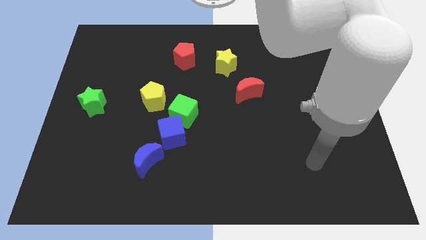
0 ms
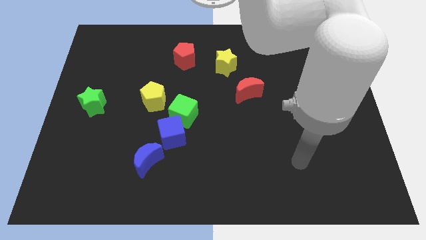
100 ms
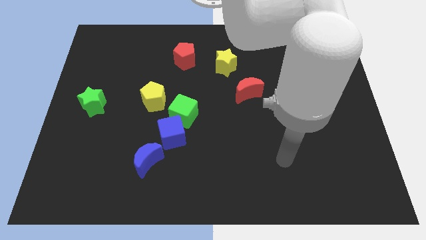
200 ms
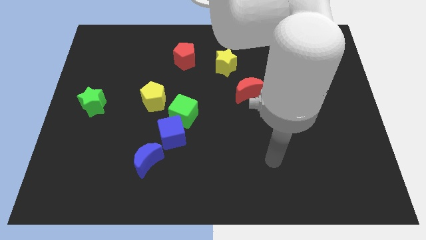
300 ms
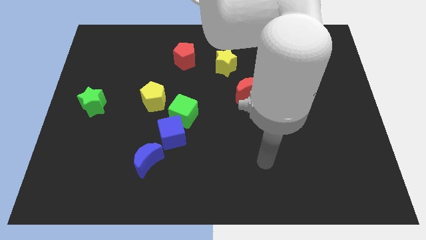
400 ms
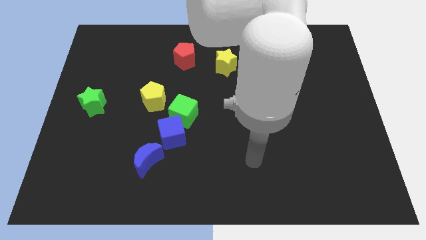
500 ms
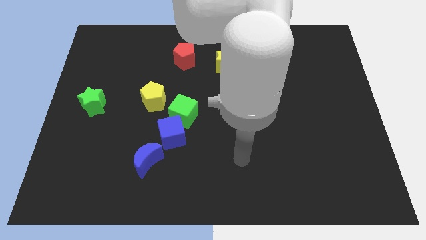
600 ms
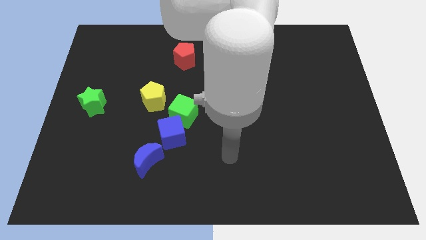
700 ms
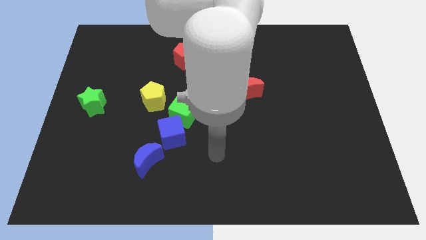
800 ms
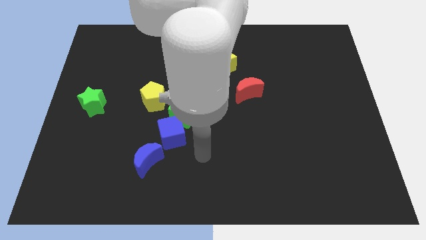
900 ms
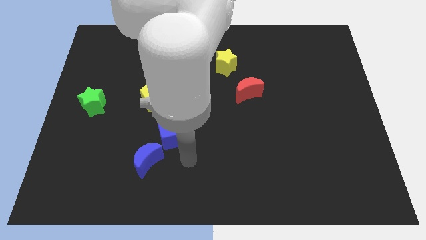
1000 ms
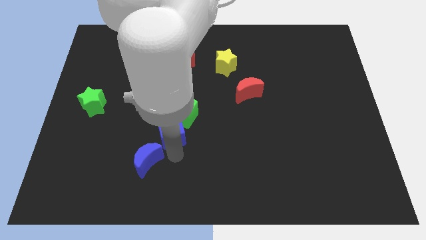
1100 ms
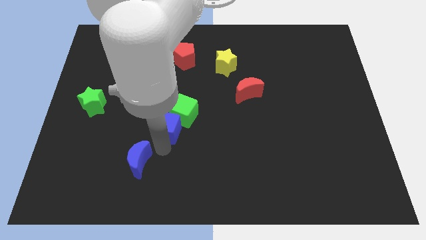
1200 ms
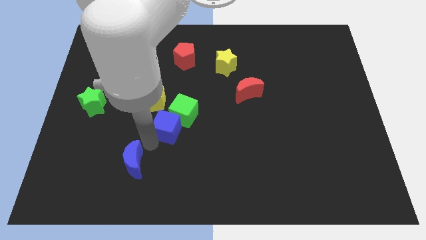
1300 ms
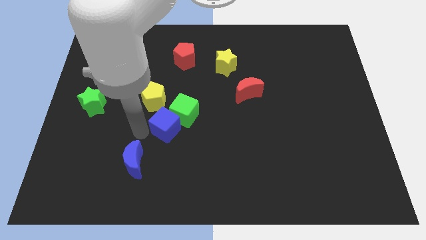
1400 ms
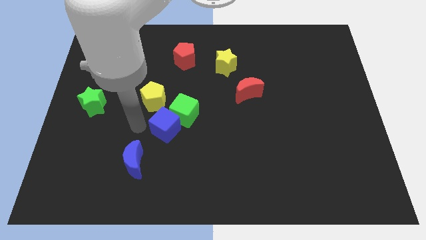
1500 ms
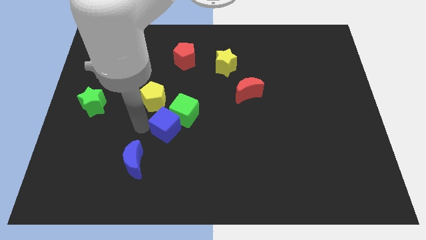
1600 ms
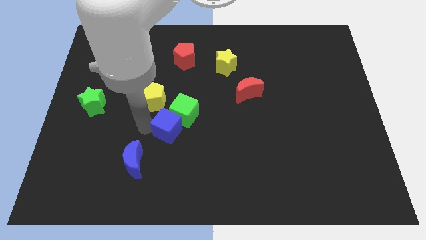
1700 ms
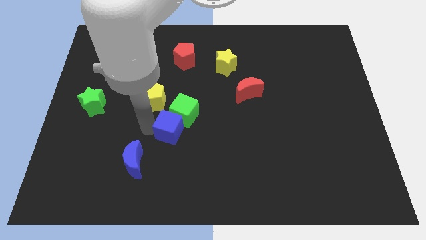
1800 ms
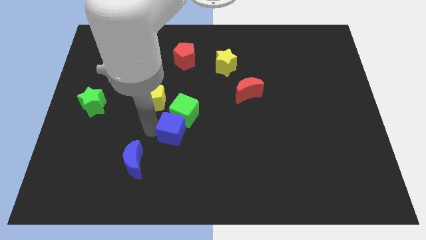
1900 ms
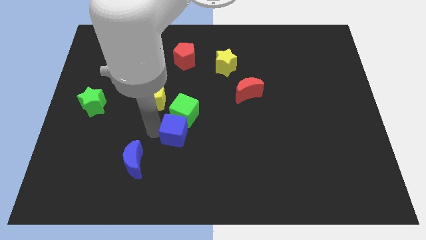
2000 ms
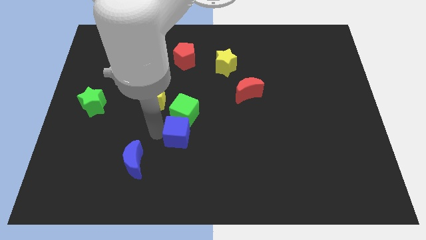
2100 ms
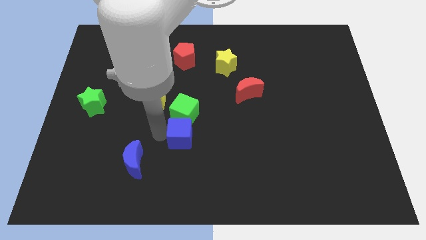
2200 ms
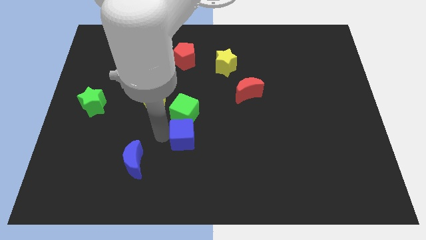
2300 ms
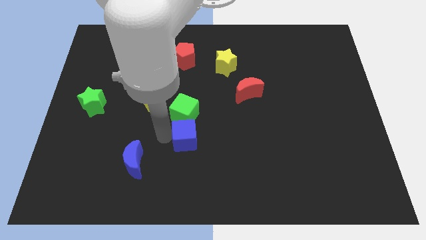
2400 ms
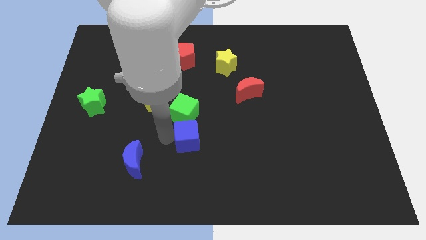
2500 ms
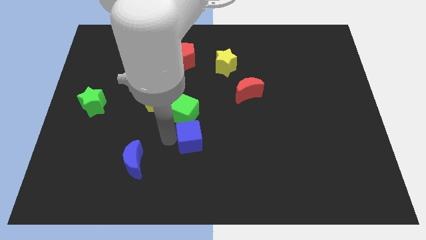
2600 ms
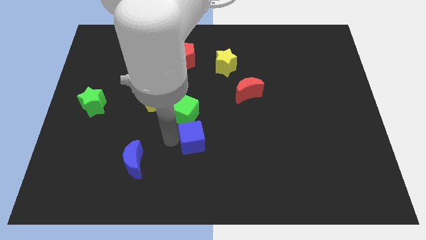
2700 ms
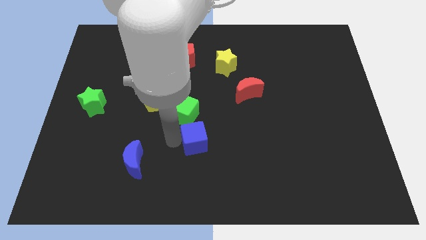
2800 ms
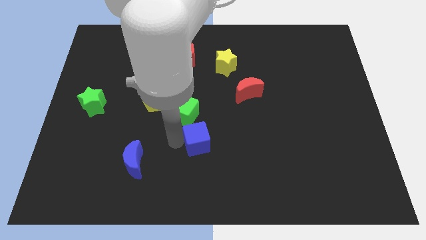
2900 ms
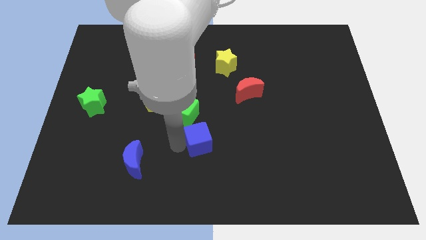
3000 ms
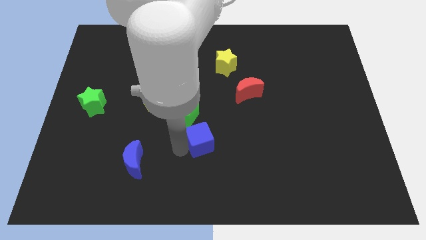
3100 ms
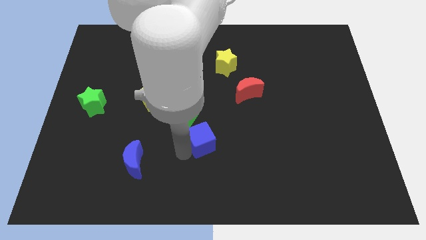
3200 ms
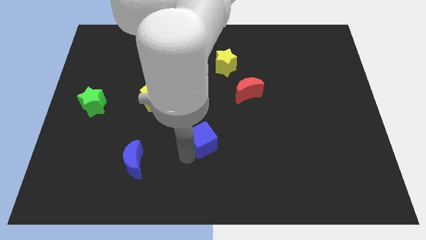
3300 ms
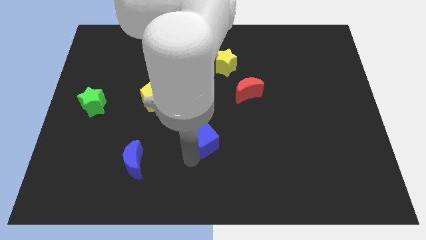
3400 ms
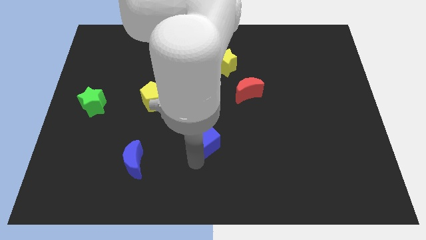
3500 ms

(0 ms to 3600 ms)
move the blue cube away from the green cube and blue moon

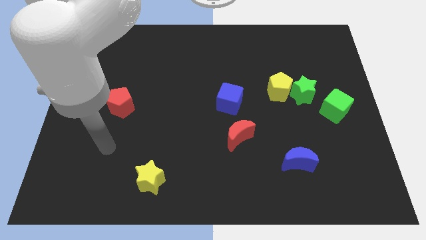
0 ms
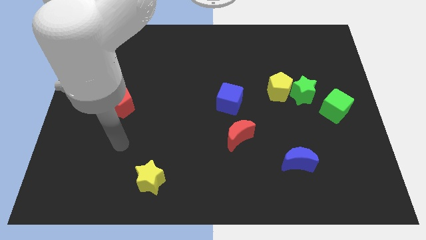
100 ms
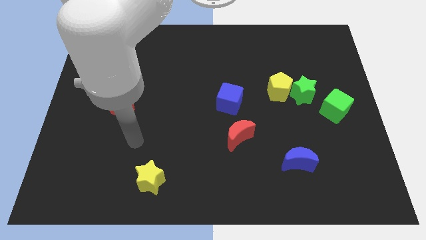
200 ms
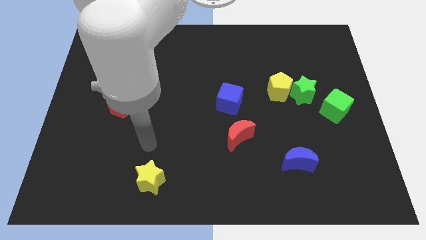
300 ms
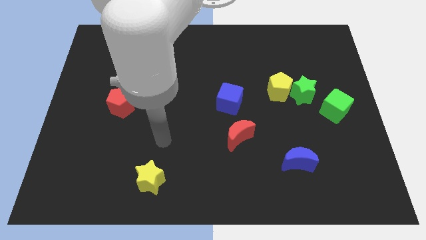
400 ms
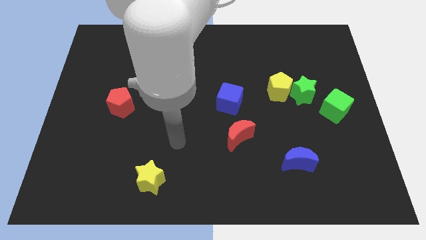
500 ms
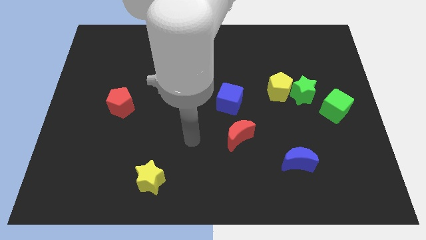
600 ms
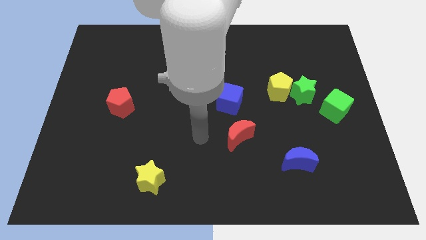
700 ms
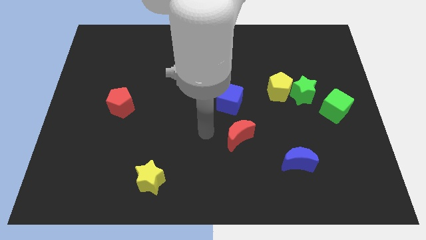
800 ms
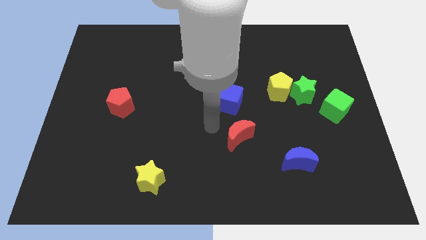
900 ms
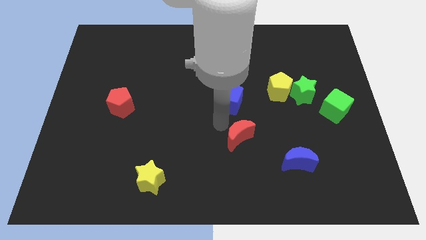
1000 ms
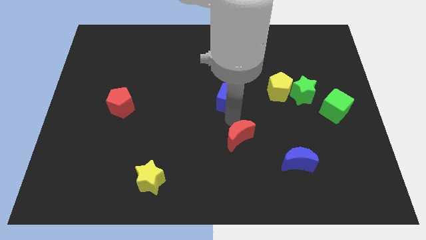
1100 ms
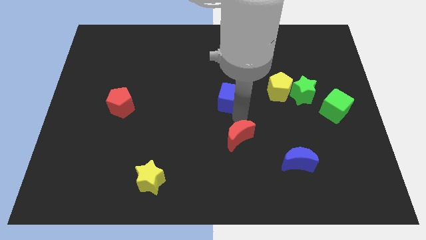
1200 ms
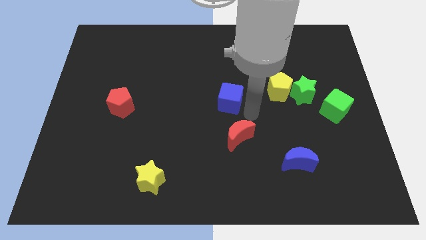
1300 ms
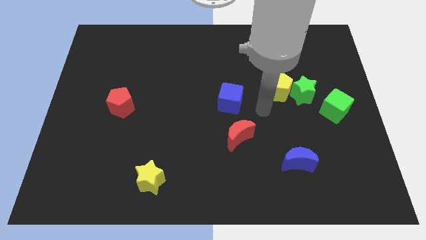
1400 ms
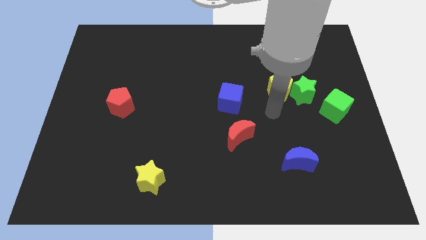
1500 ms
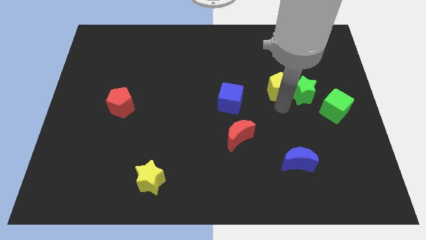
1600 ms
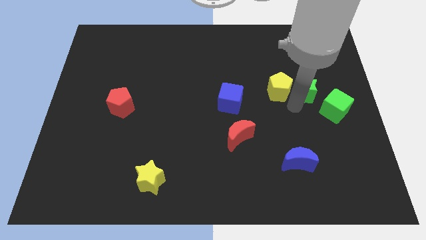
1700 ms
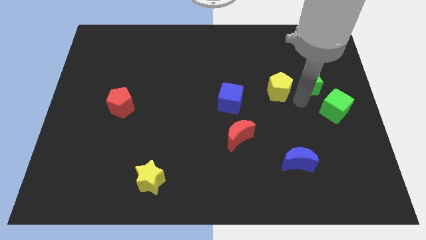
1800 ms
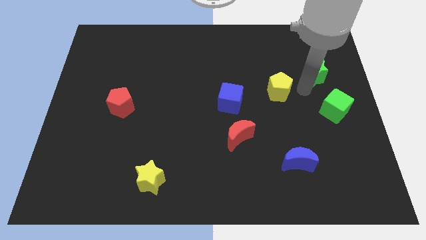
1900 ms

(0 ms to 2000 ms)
move the yellow pentagon away from the green star

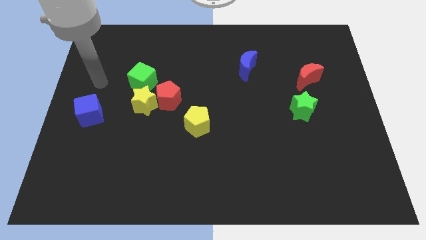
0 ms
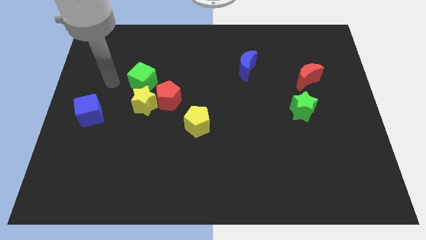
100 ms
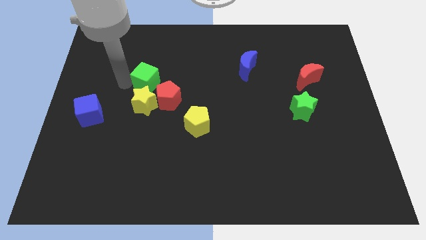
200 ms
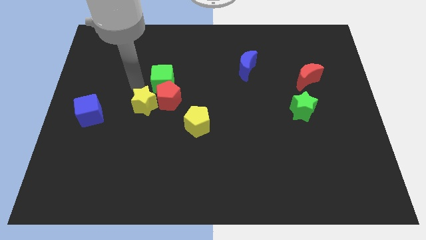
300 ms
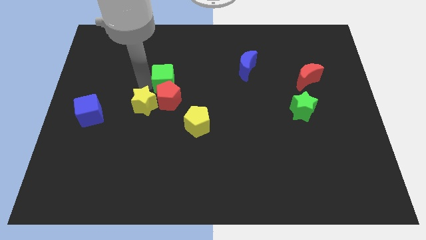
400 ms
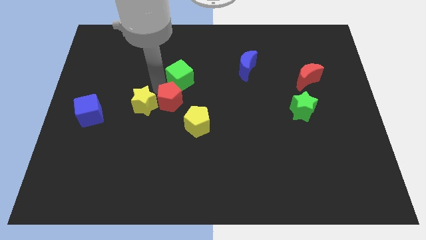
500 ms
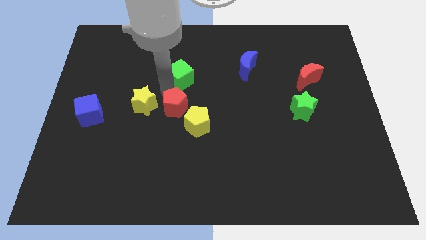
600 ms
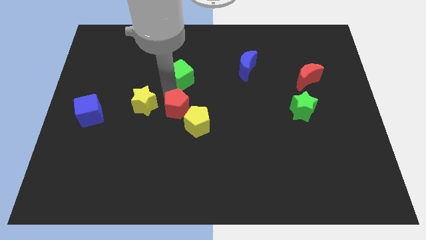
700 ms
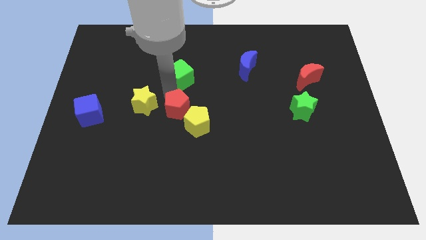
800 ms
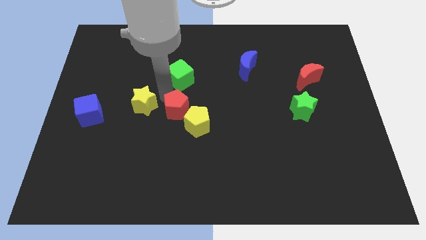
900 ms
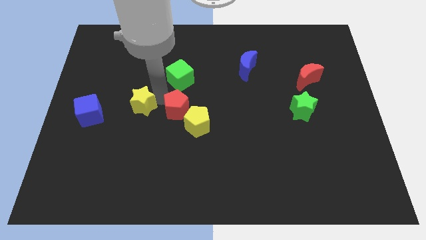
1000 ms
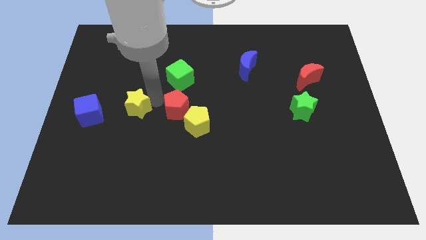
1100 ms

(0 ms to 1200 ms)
pull the yellow star apart from the red pentagon and green cube

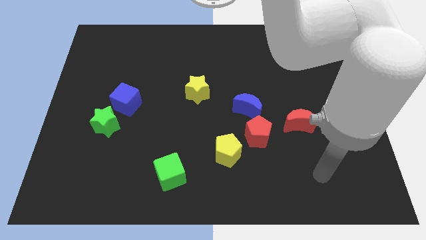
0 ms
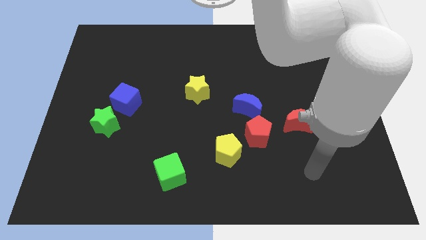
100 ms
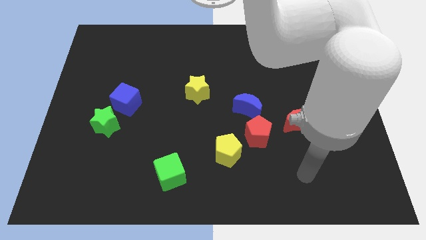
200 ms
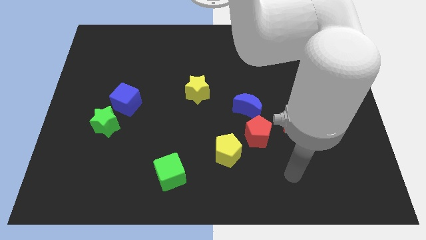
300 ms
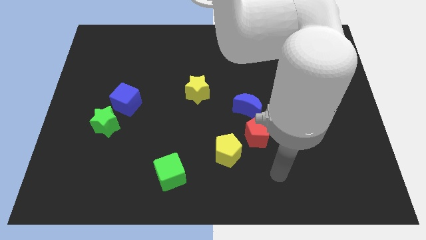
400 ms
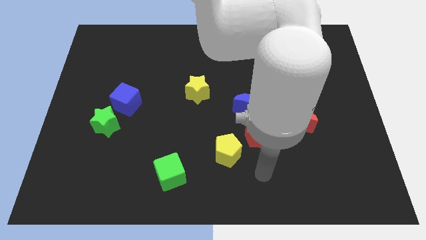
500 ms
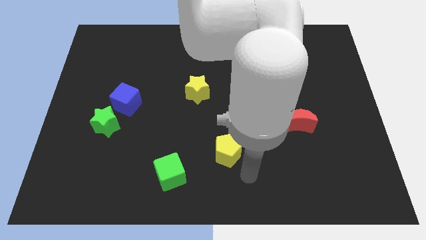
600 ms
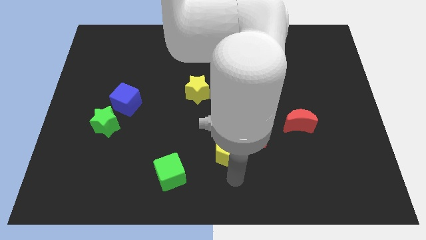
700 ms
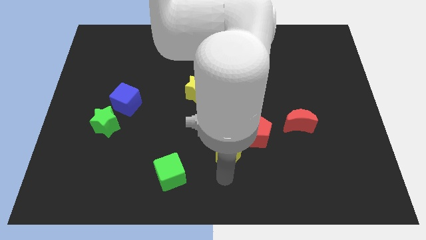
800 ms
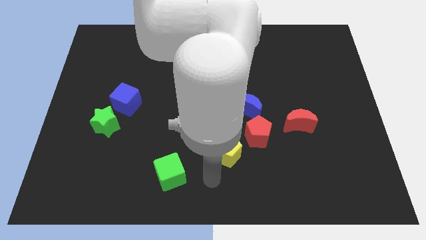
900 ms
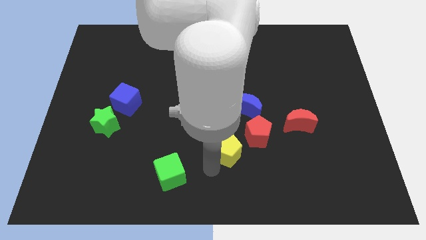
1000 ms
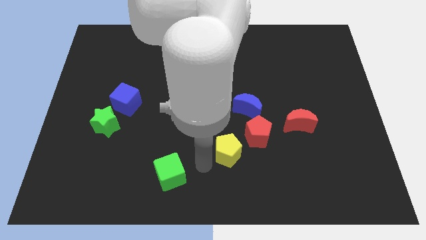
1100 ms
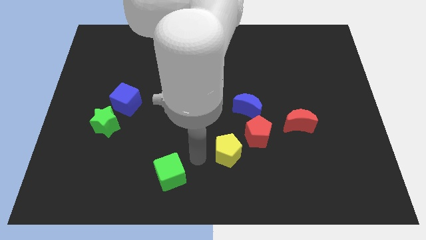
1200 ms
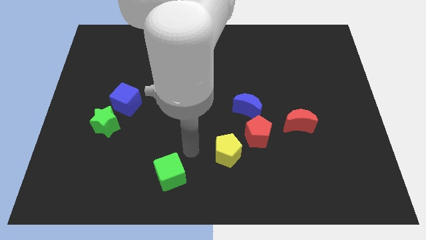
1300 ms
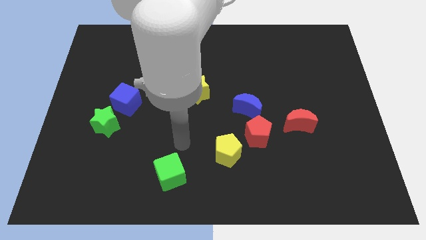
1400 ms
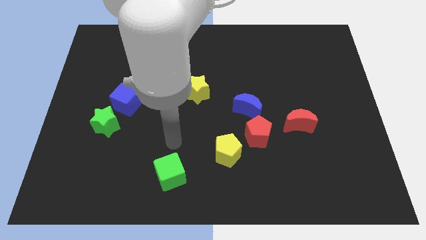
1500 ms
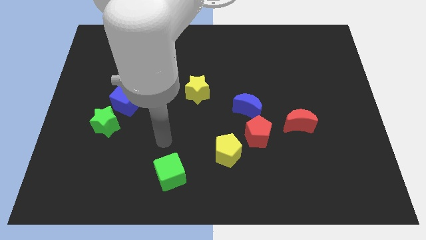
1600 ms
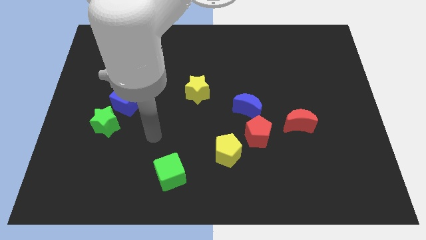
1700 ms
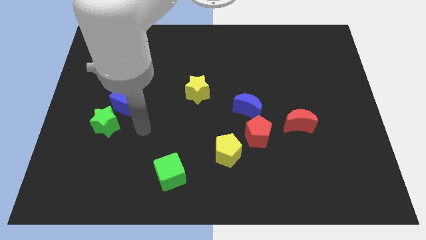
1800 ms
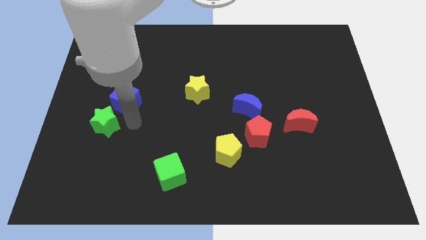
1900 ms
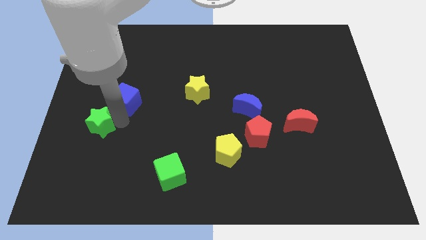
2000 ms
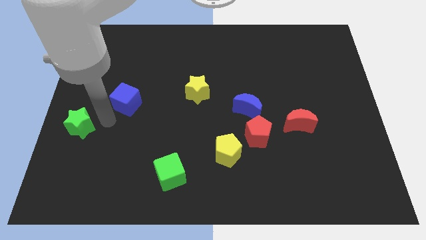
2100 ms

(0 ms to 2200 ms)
move the blue cube away from the green star

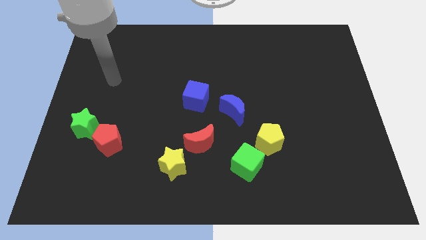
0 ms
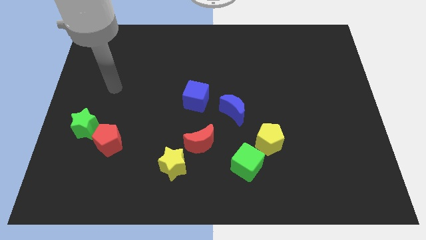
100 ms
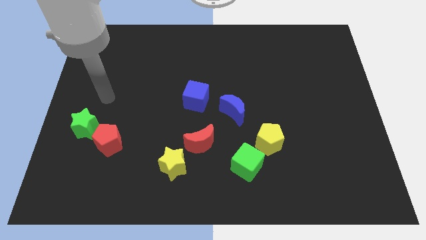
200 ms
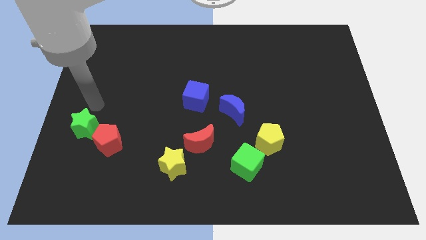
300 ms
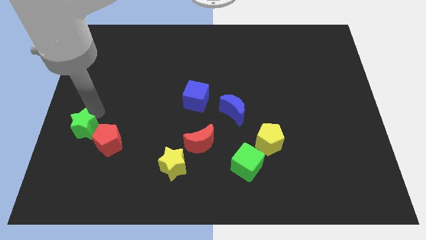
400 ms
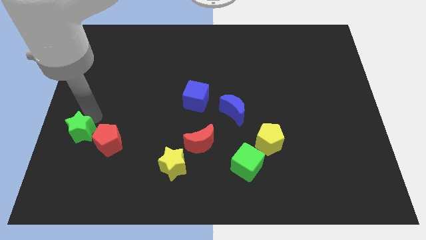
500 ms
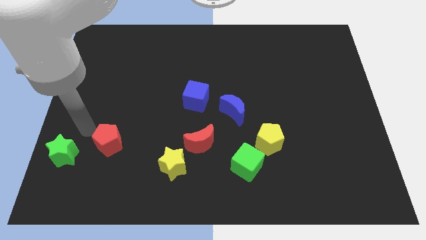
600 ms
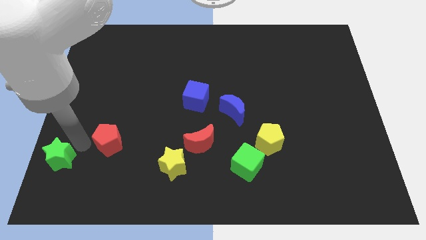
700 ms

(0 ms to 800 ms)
move the red pentagon away from the green star
